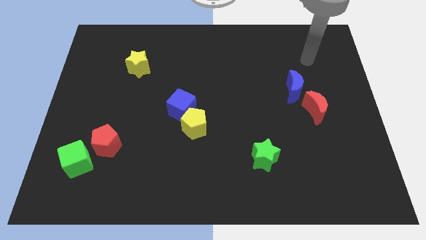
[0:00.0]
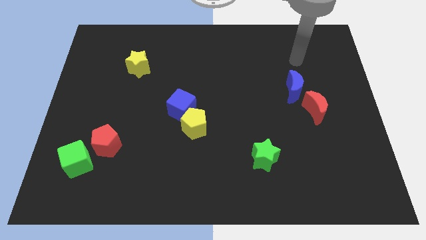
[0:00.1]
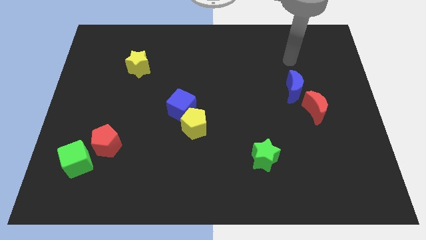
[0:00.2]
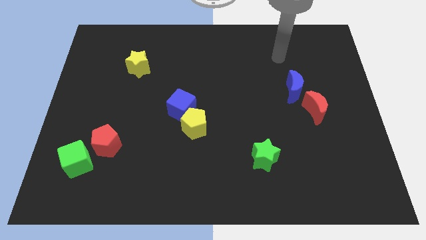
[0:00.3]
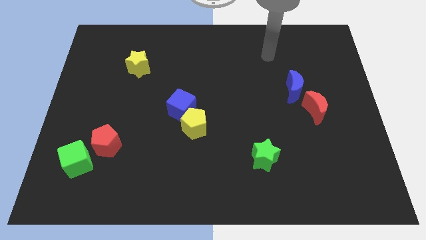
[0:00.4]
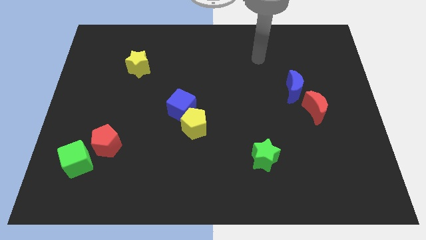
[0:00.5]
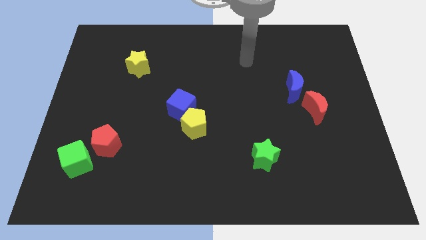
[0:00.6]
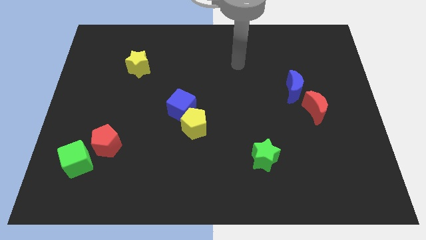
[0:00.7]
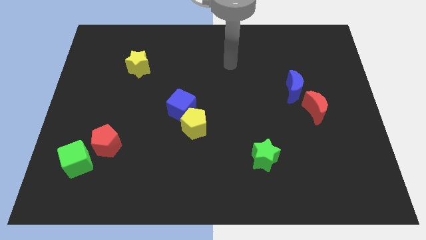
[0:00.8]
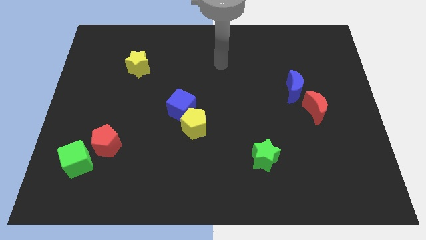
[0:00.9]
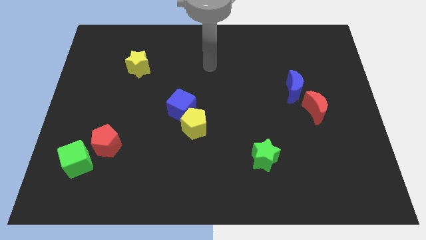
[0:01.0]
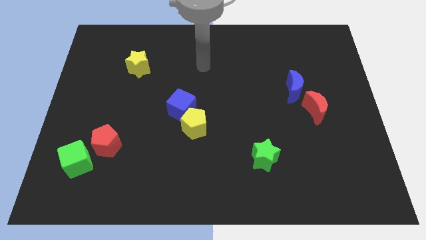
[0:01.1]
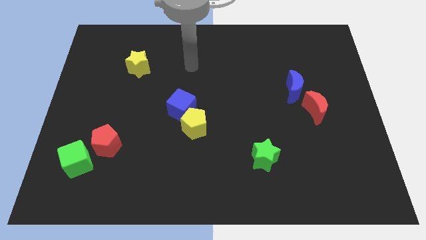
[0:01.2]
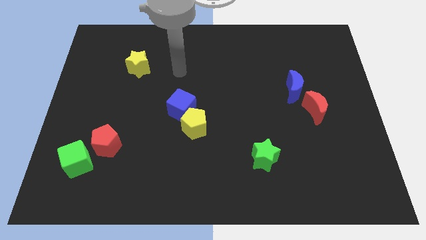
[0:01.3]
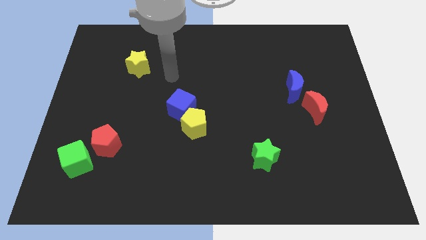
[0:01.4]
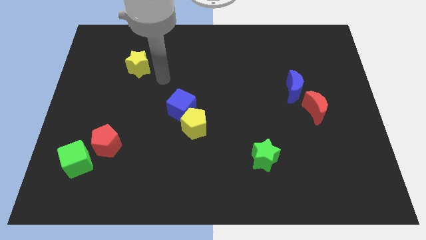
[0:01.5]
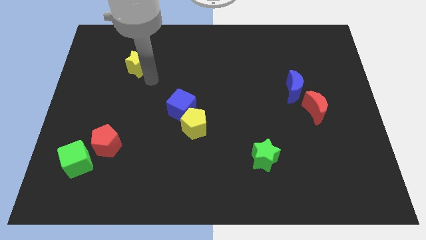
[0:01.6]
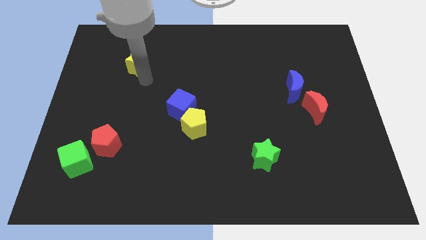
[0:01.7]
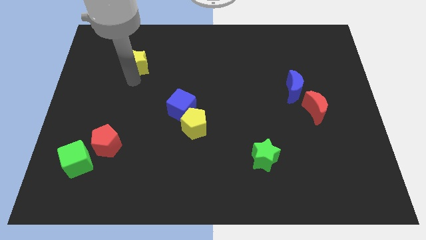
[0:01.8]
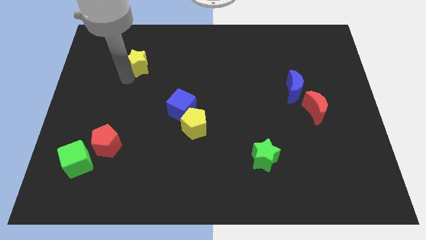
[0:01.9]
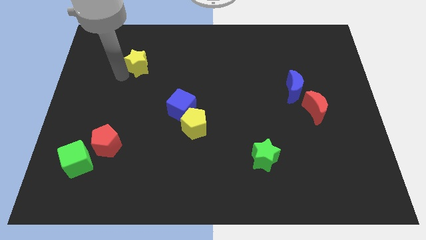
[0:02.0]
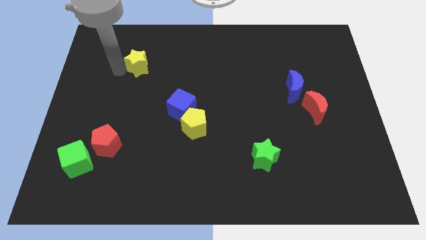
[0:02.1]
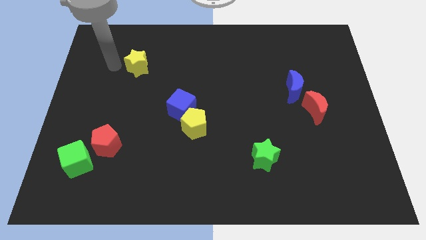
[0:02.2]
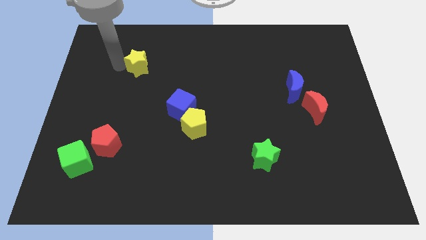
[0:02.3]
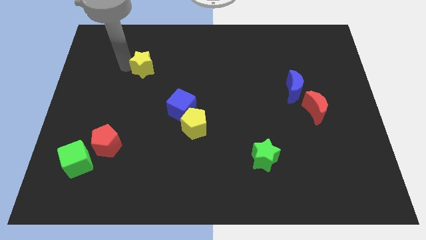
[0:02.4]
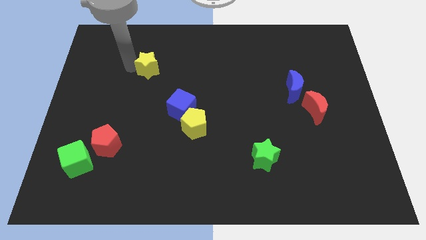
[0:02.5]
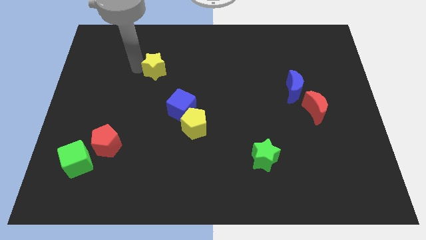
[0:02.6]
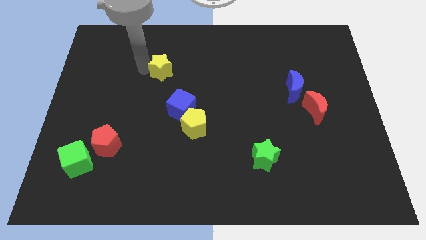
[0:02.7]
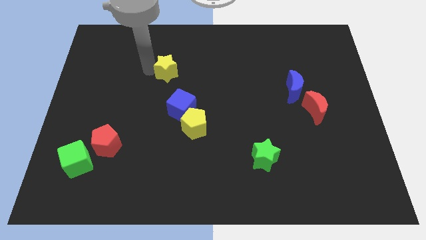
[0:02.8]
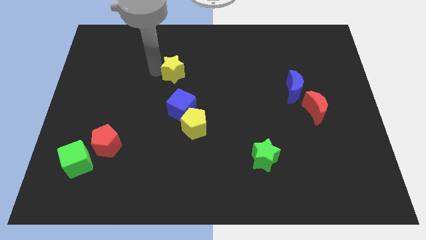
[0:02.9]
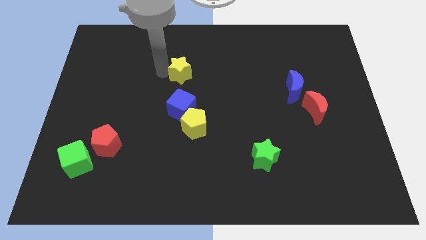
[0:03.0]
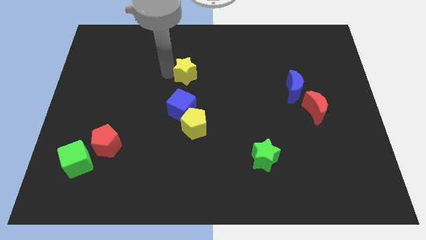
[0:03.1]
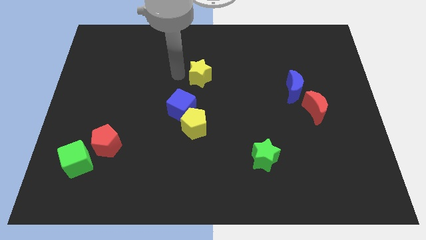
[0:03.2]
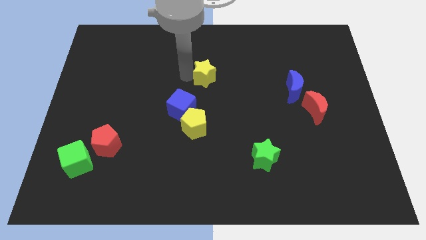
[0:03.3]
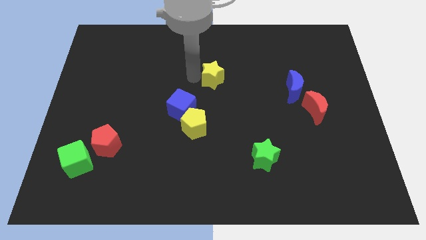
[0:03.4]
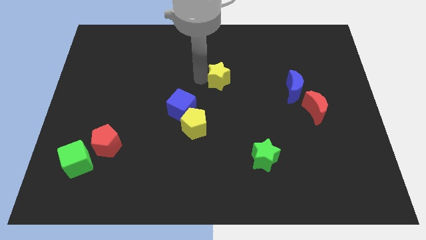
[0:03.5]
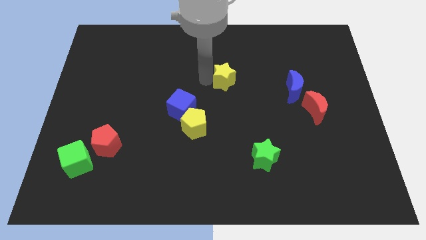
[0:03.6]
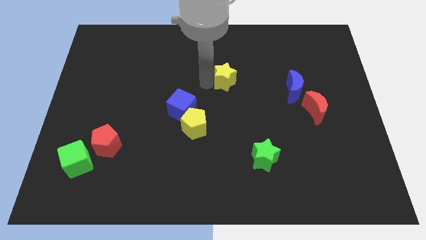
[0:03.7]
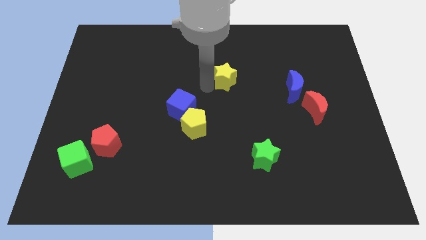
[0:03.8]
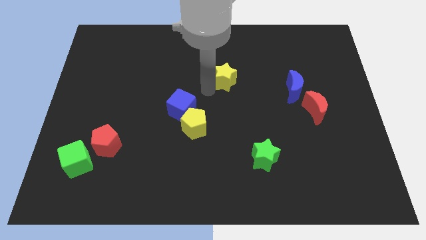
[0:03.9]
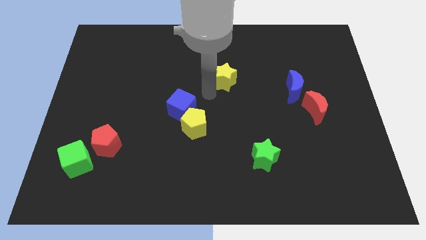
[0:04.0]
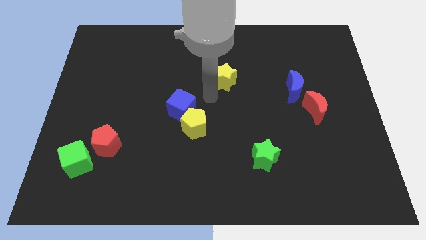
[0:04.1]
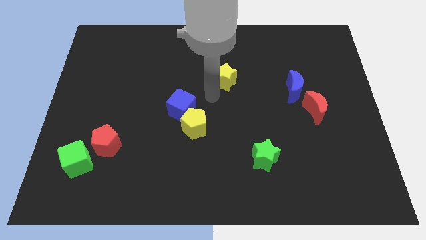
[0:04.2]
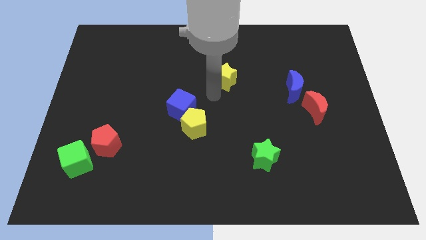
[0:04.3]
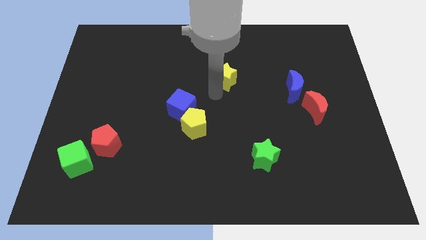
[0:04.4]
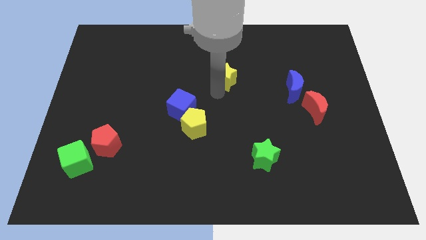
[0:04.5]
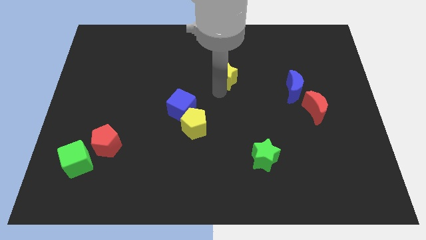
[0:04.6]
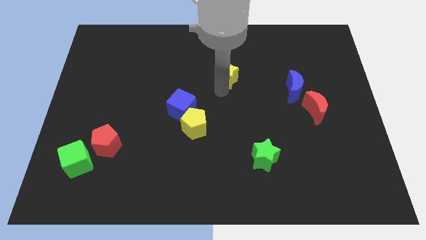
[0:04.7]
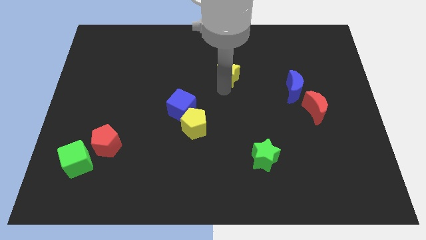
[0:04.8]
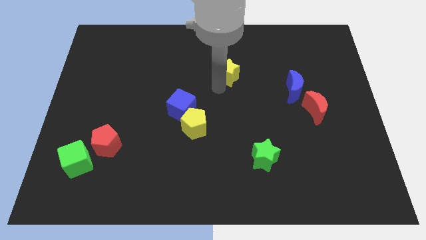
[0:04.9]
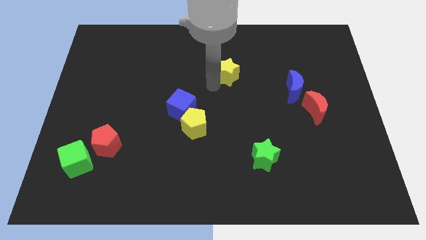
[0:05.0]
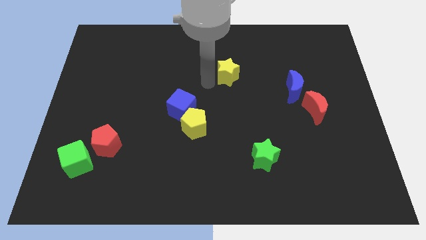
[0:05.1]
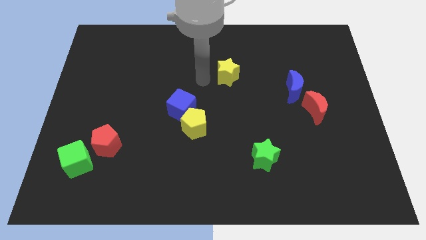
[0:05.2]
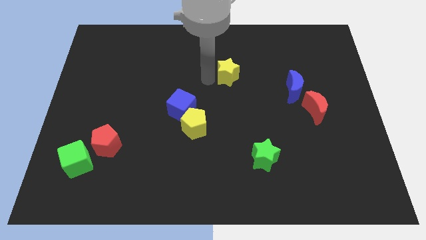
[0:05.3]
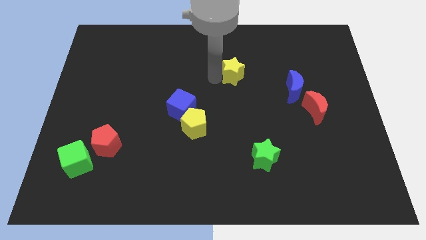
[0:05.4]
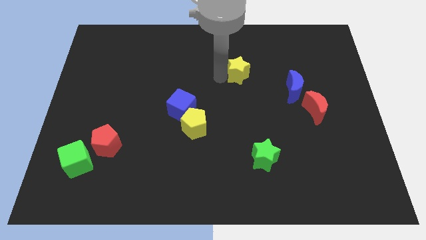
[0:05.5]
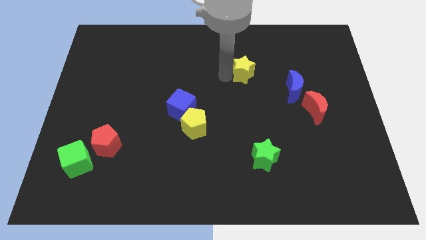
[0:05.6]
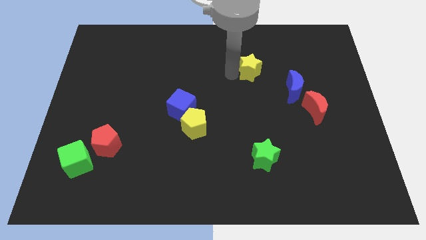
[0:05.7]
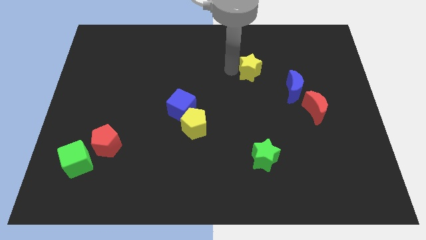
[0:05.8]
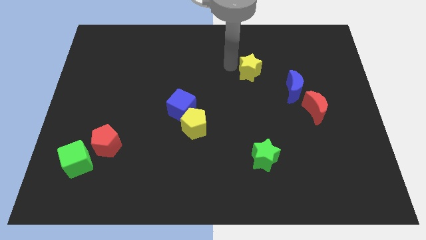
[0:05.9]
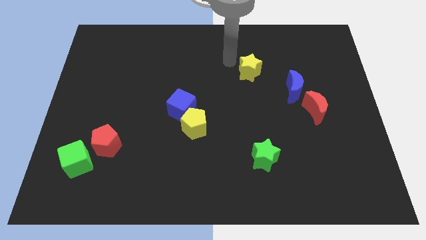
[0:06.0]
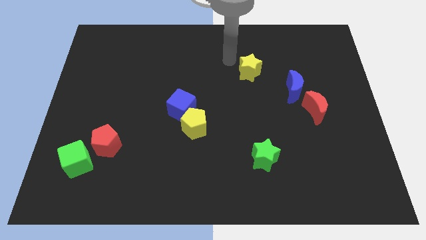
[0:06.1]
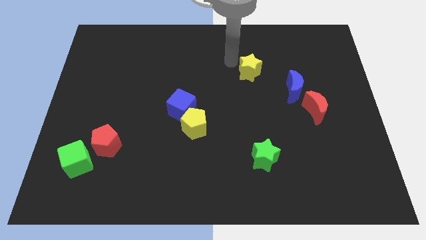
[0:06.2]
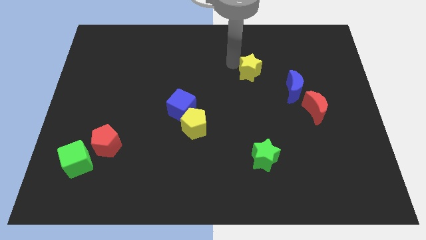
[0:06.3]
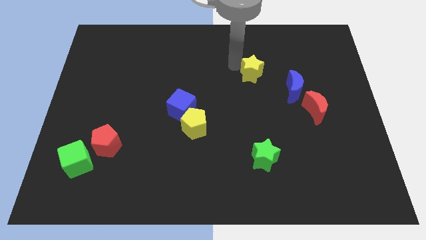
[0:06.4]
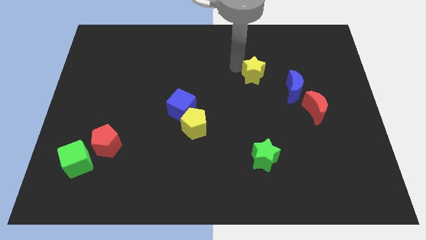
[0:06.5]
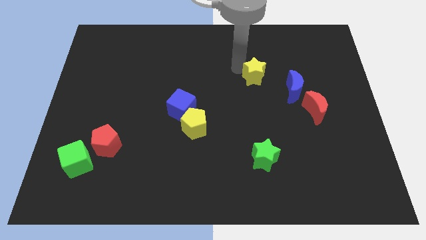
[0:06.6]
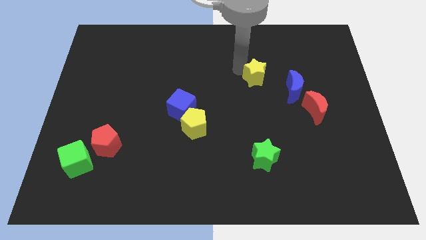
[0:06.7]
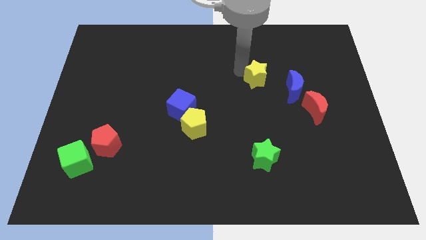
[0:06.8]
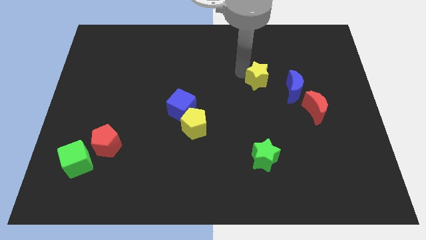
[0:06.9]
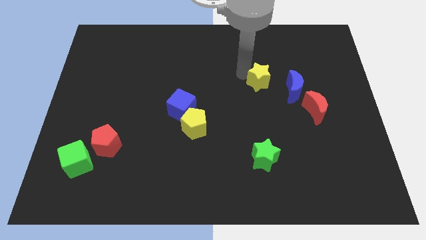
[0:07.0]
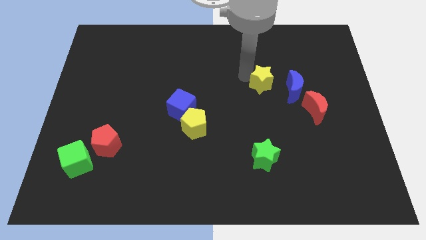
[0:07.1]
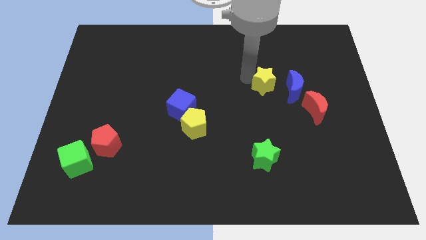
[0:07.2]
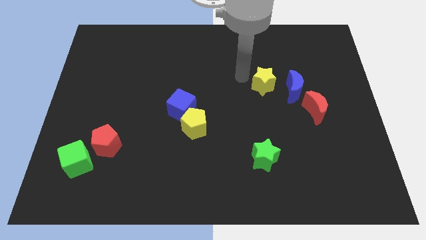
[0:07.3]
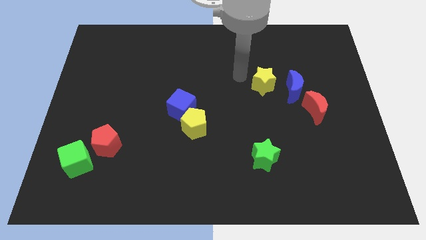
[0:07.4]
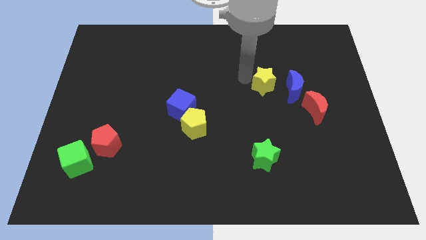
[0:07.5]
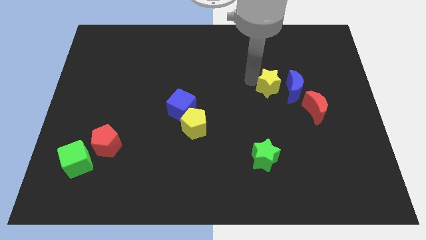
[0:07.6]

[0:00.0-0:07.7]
push the yellow star diagonally up and to the left of the red moon
